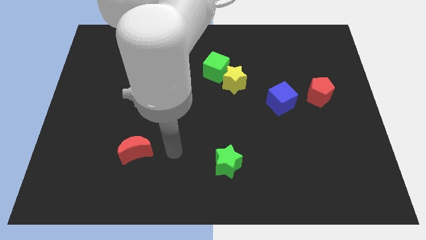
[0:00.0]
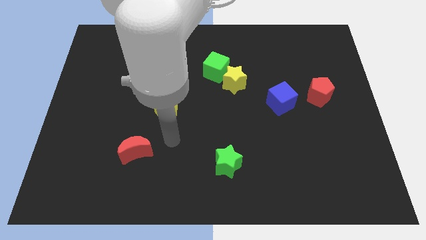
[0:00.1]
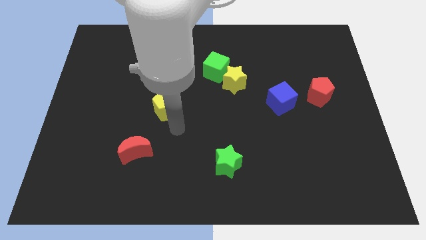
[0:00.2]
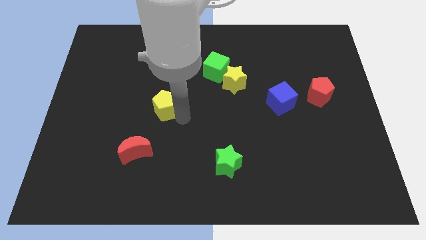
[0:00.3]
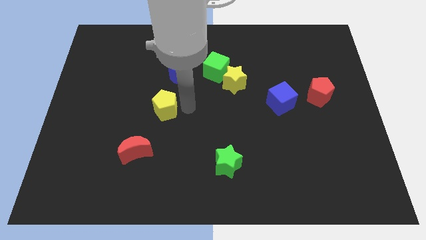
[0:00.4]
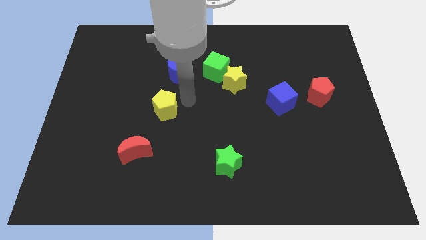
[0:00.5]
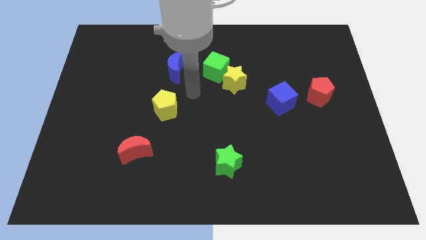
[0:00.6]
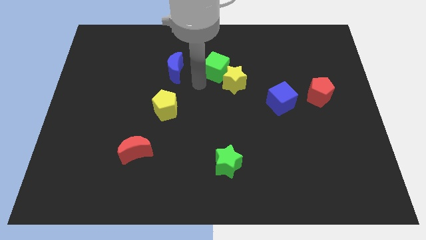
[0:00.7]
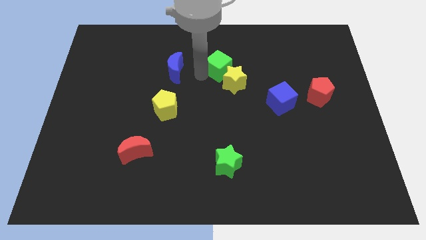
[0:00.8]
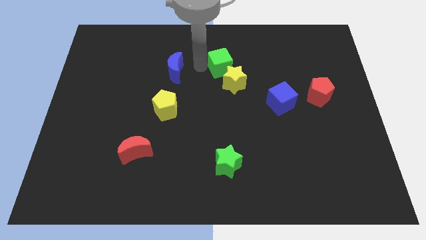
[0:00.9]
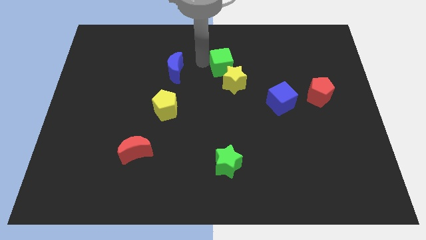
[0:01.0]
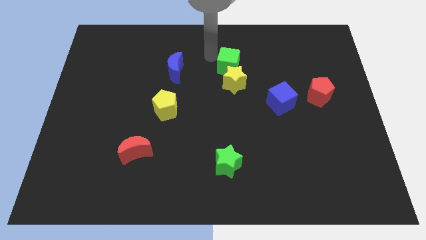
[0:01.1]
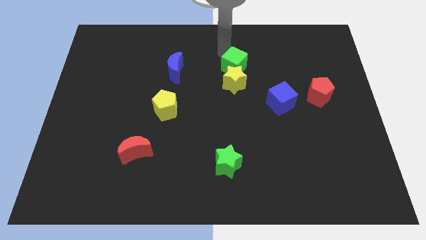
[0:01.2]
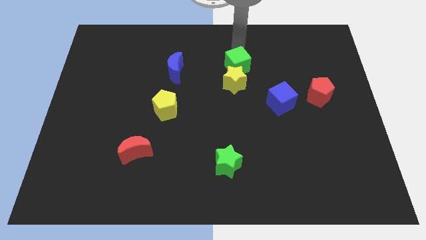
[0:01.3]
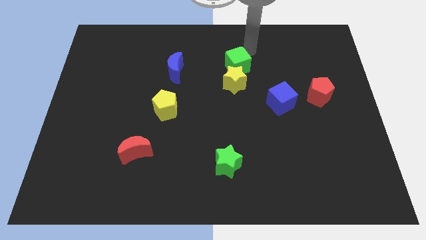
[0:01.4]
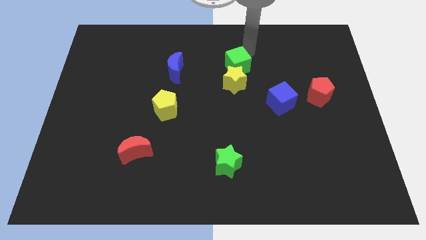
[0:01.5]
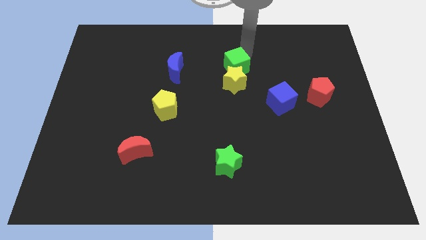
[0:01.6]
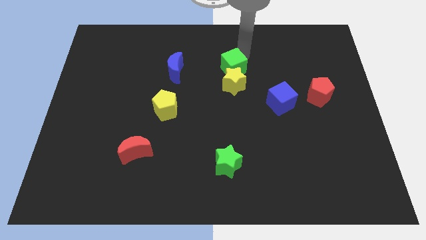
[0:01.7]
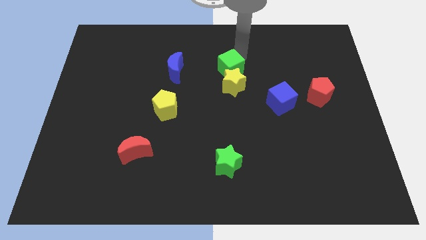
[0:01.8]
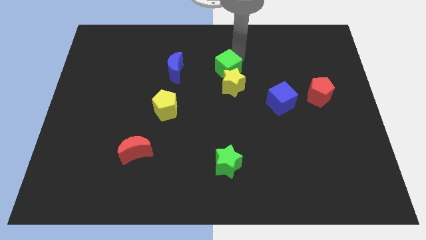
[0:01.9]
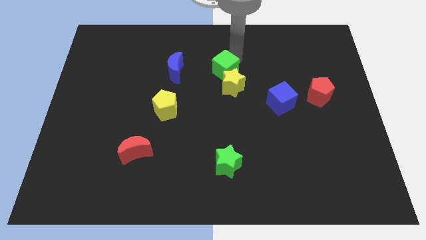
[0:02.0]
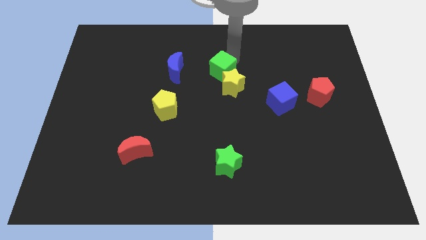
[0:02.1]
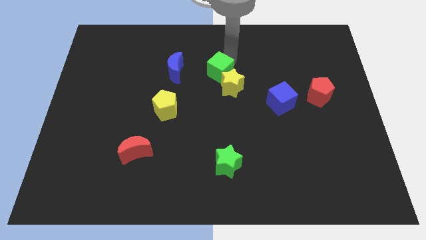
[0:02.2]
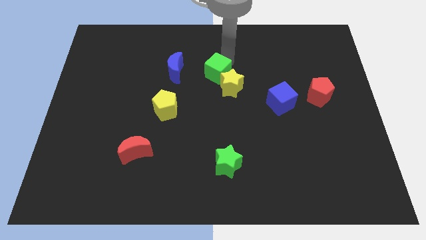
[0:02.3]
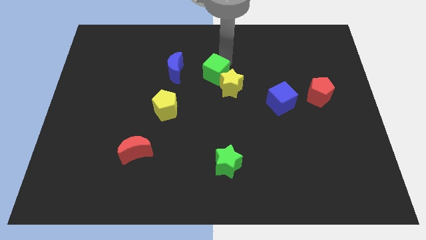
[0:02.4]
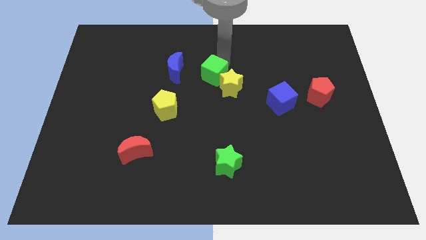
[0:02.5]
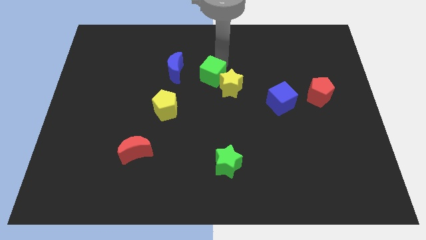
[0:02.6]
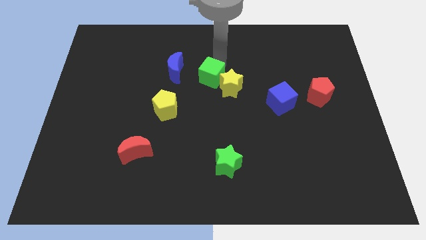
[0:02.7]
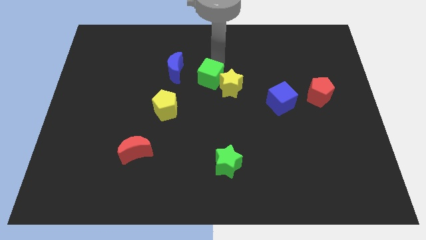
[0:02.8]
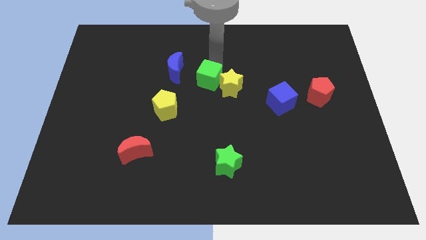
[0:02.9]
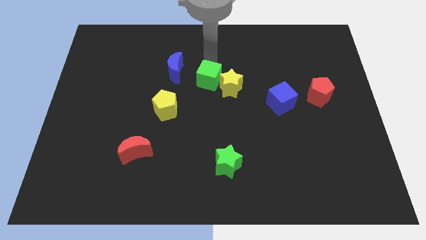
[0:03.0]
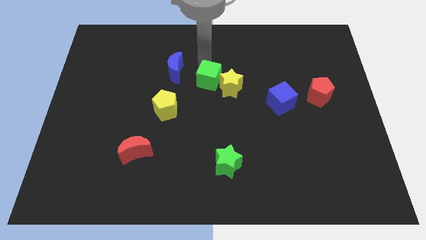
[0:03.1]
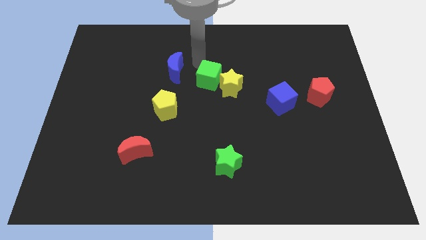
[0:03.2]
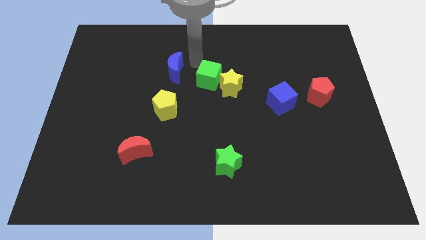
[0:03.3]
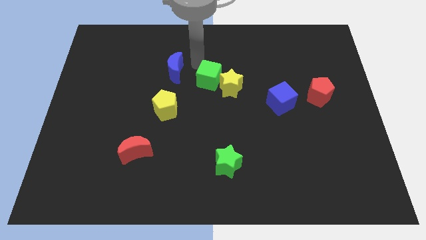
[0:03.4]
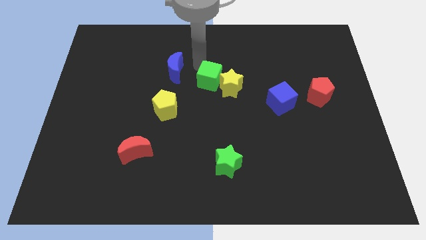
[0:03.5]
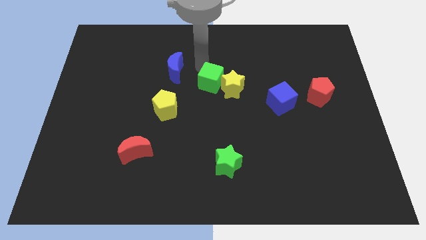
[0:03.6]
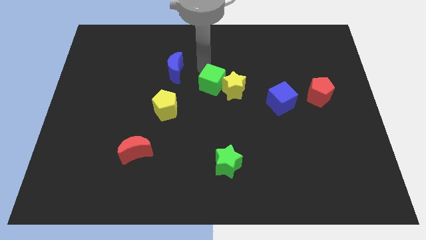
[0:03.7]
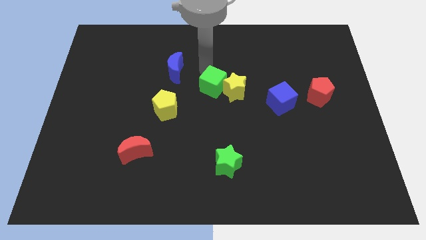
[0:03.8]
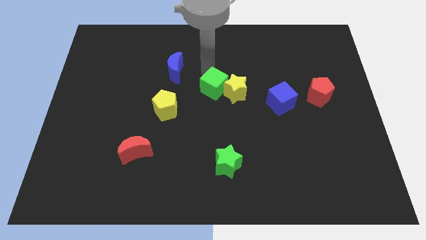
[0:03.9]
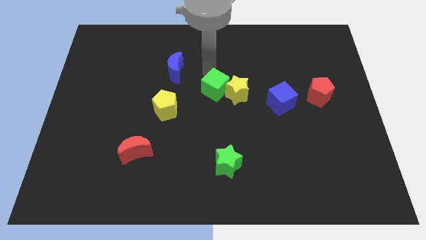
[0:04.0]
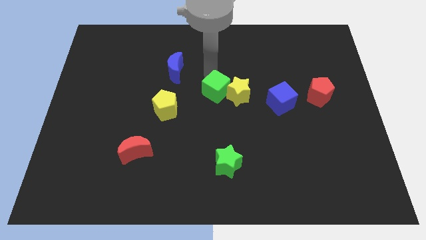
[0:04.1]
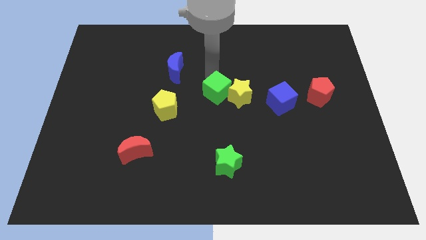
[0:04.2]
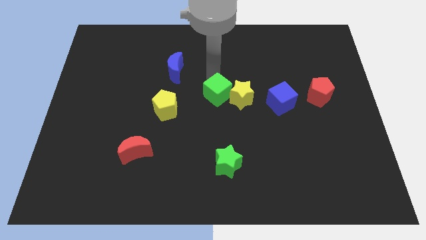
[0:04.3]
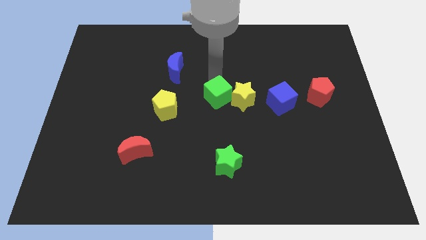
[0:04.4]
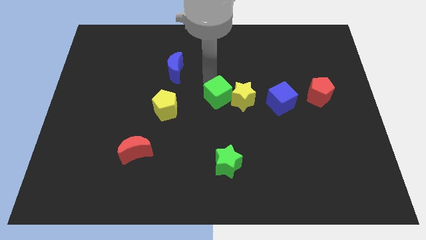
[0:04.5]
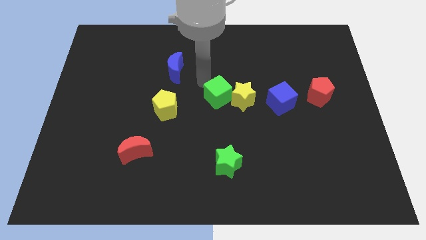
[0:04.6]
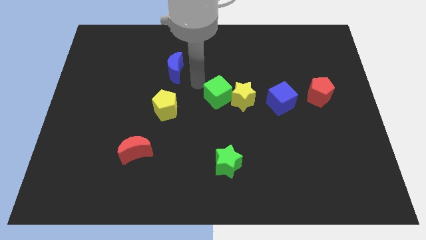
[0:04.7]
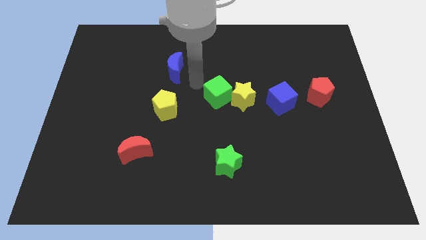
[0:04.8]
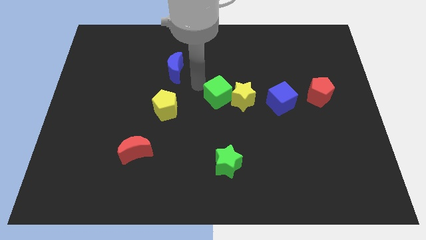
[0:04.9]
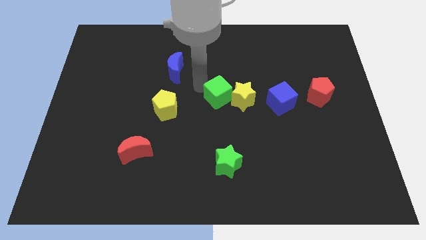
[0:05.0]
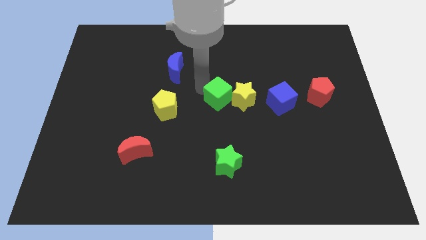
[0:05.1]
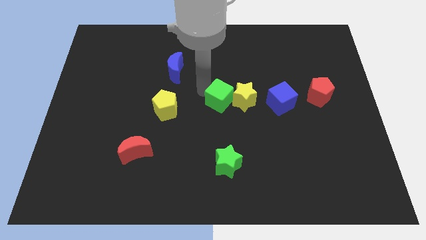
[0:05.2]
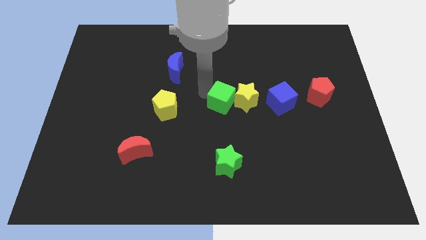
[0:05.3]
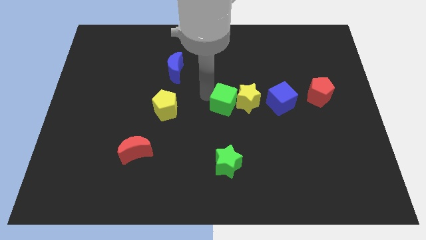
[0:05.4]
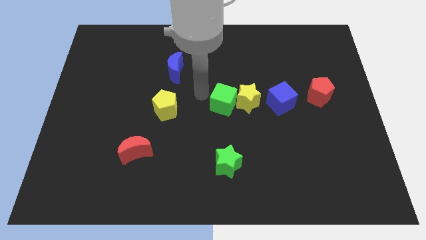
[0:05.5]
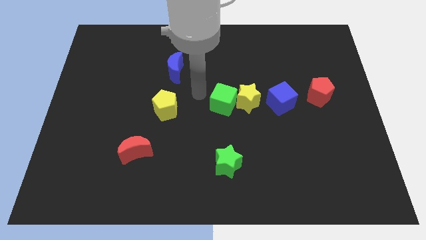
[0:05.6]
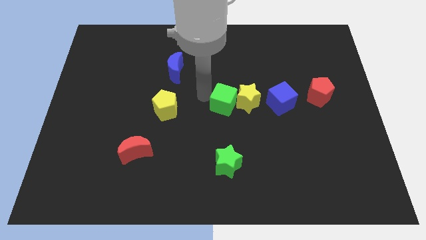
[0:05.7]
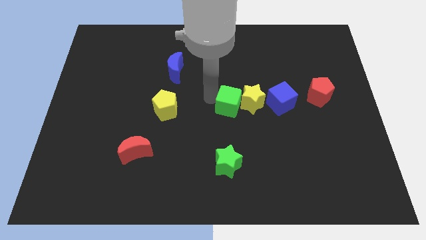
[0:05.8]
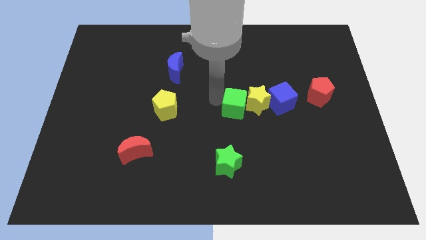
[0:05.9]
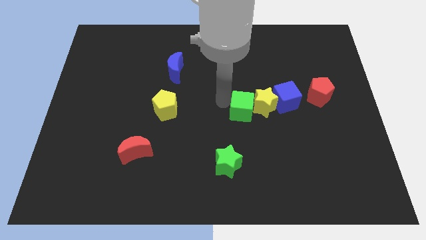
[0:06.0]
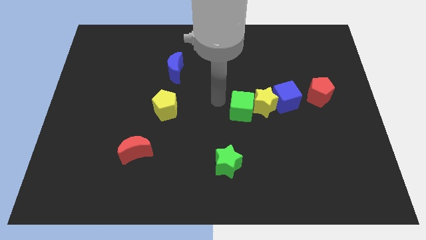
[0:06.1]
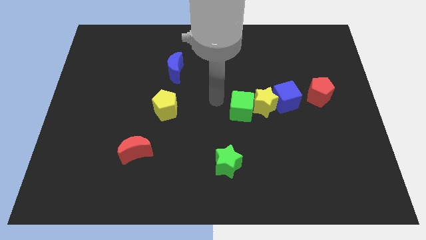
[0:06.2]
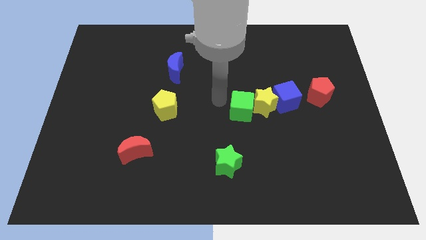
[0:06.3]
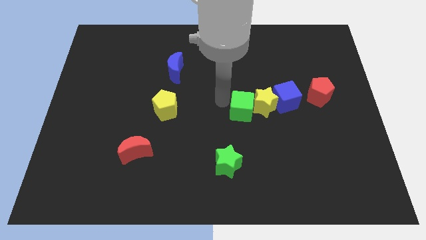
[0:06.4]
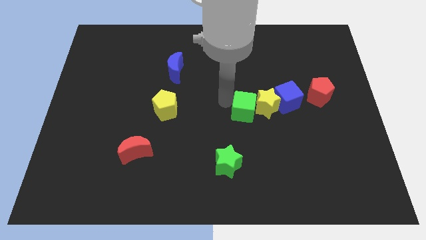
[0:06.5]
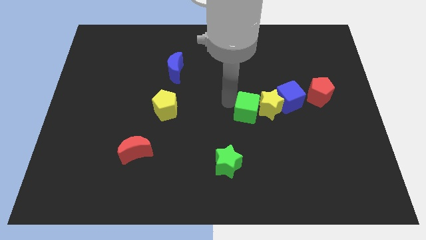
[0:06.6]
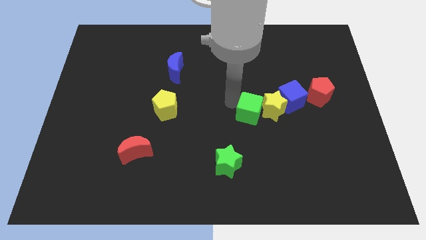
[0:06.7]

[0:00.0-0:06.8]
push the green cube to the bottom left side of the blue cube

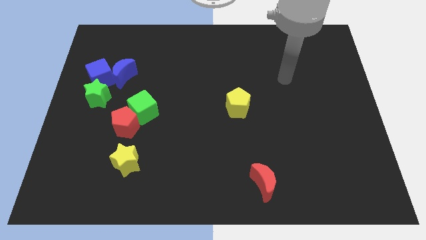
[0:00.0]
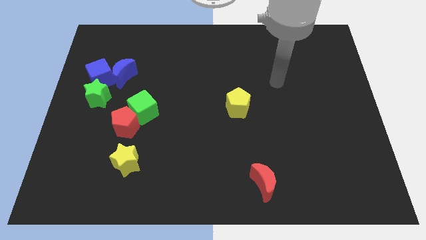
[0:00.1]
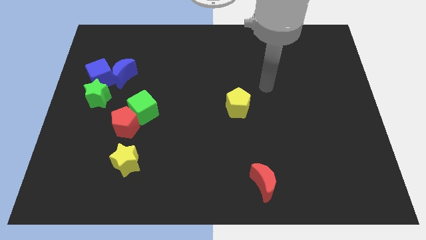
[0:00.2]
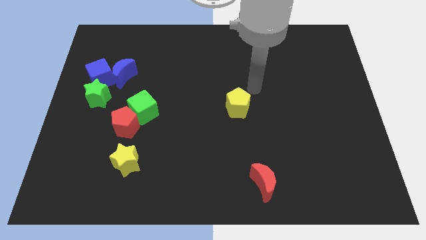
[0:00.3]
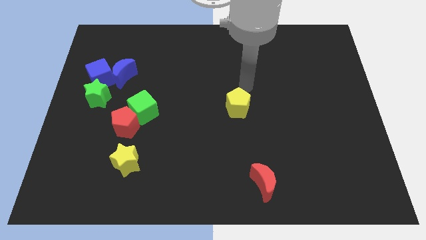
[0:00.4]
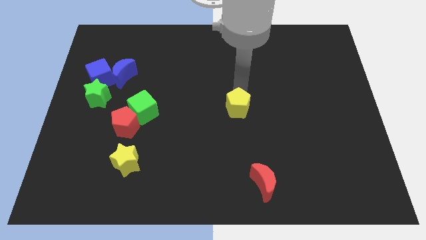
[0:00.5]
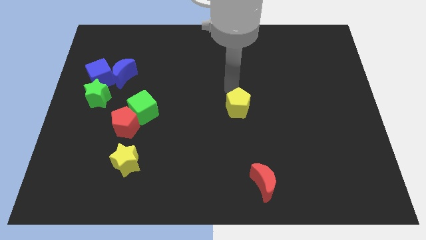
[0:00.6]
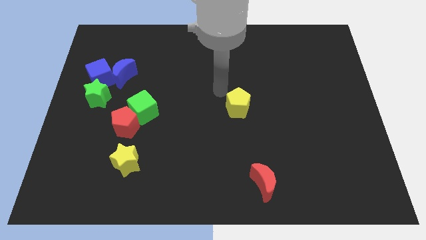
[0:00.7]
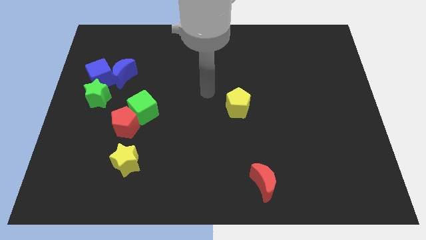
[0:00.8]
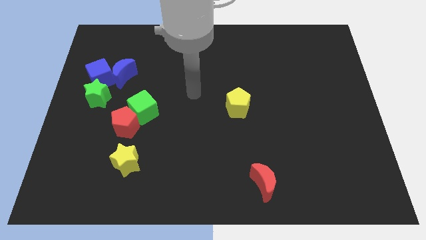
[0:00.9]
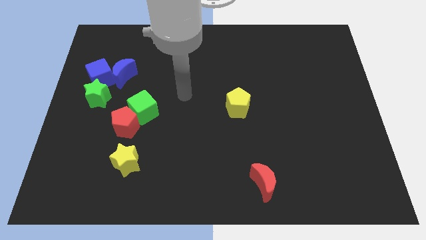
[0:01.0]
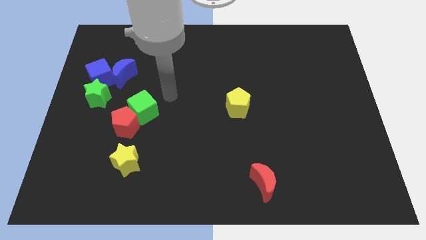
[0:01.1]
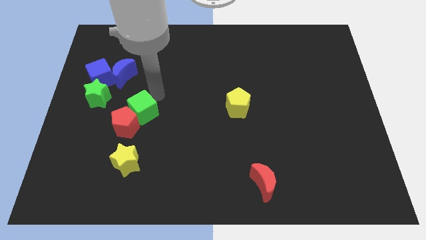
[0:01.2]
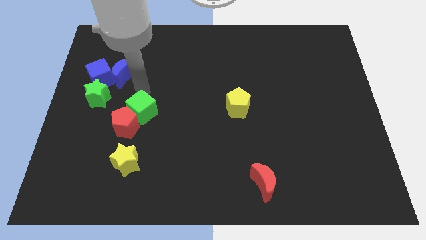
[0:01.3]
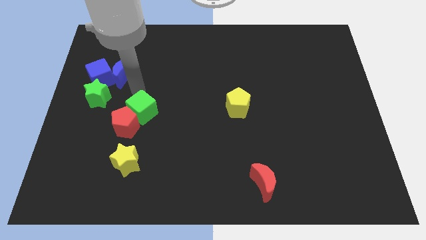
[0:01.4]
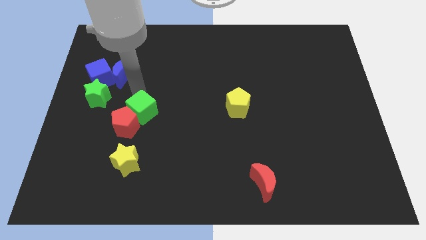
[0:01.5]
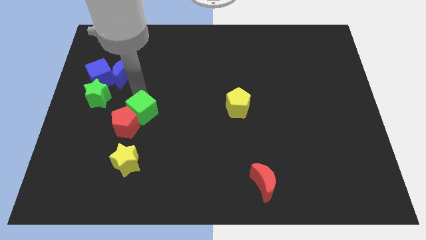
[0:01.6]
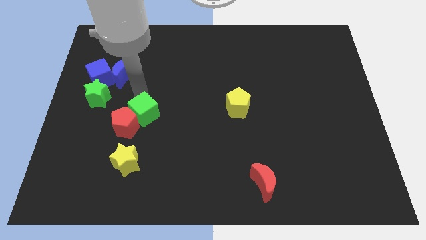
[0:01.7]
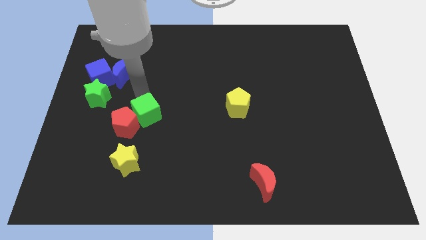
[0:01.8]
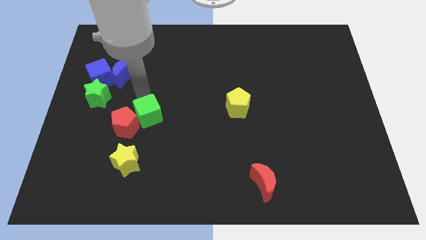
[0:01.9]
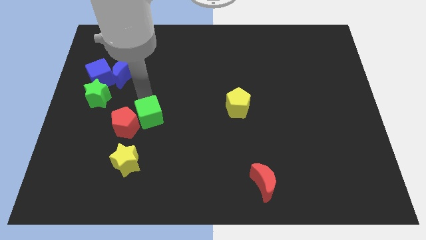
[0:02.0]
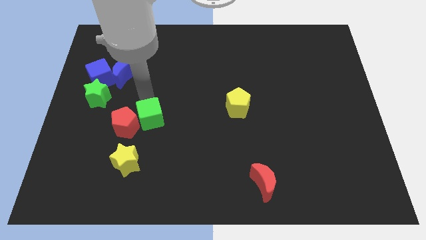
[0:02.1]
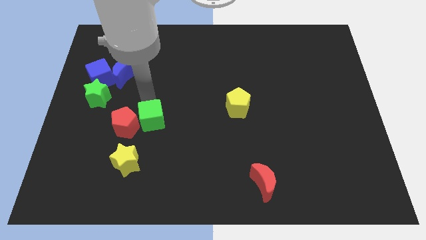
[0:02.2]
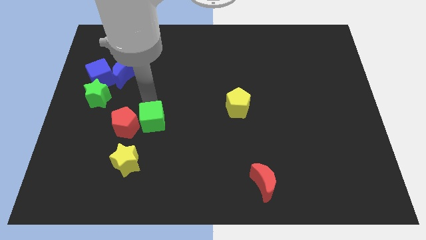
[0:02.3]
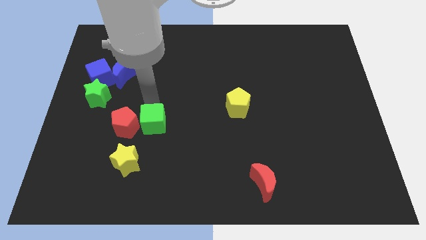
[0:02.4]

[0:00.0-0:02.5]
slide the green cube diagonally down and to the right of the red pentagon
